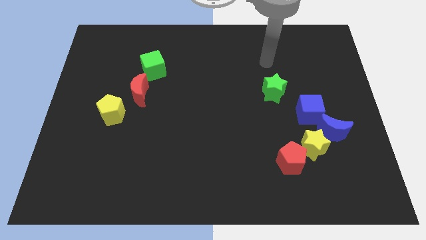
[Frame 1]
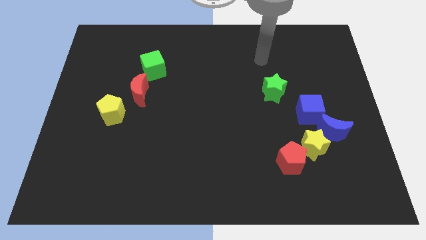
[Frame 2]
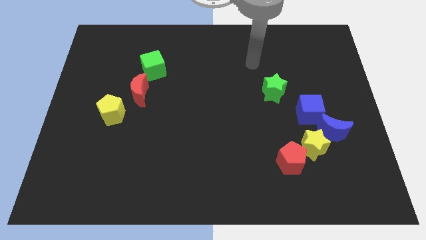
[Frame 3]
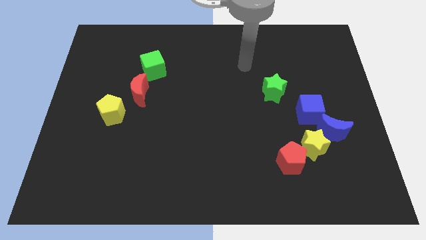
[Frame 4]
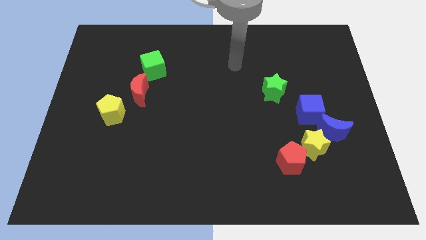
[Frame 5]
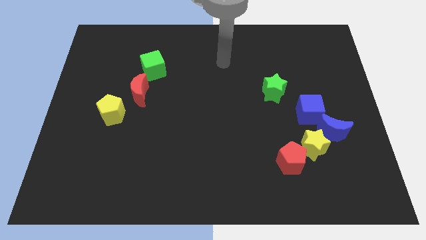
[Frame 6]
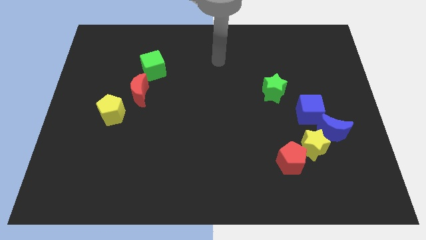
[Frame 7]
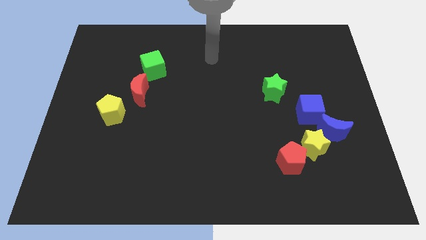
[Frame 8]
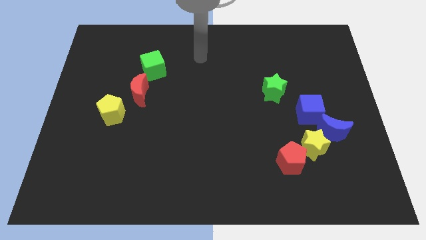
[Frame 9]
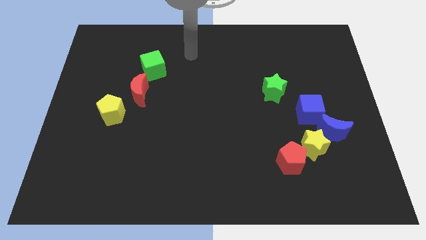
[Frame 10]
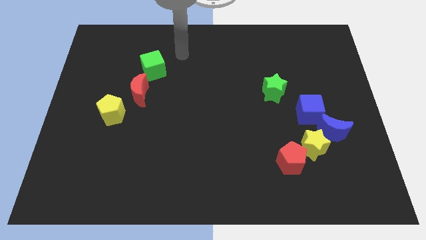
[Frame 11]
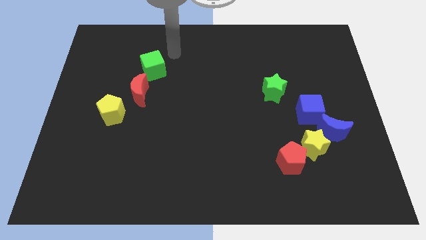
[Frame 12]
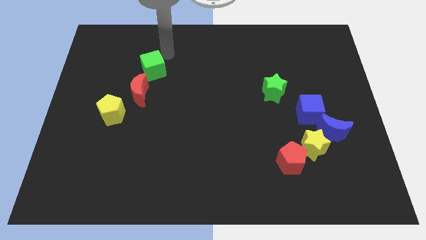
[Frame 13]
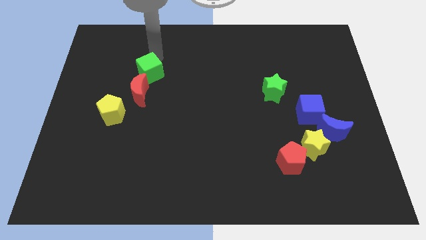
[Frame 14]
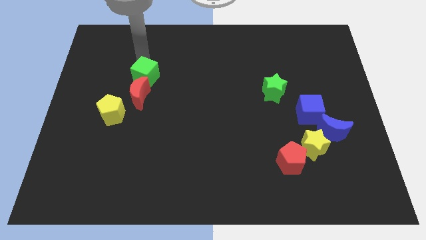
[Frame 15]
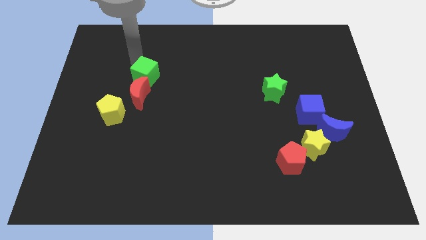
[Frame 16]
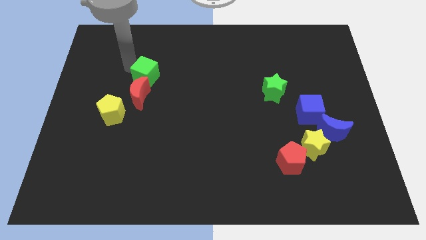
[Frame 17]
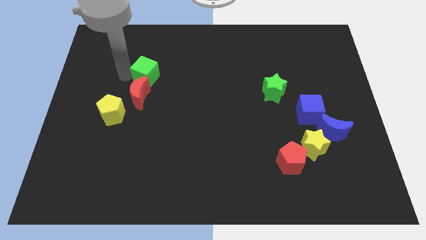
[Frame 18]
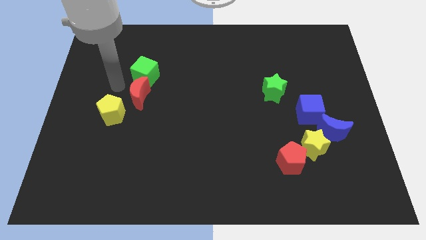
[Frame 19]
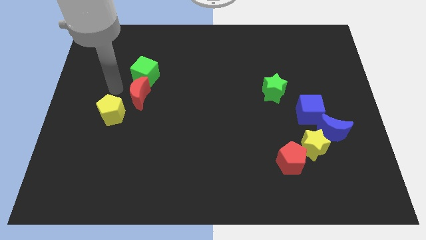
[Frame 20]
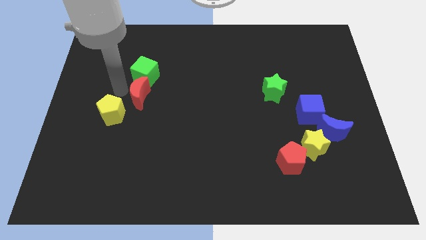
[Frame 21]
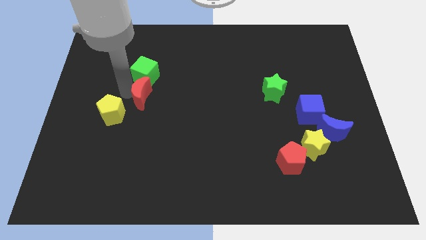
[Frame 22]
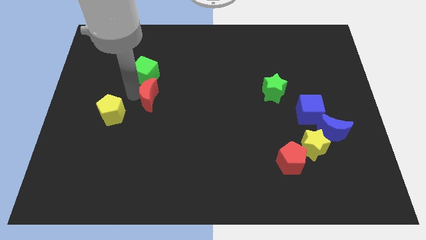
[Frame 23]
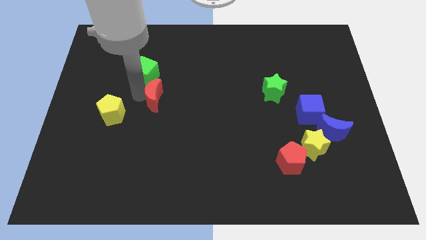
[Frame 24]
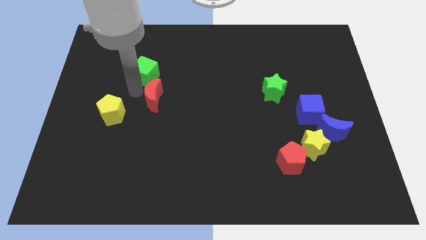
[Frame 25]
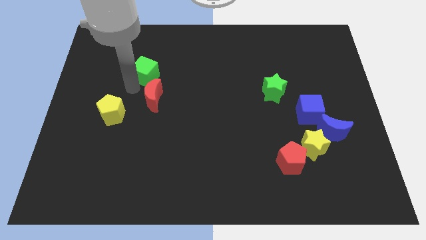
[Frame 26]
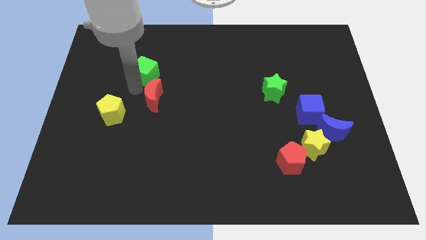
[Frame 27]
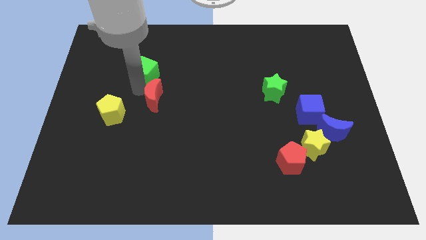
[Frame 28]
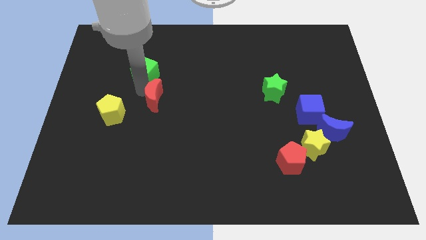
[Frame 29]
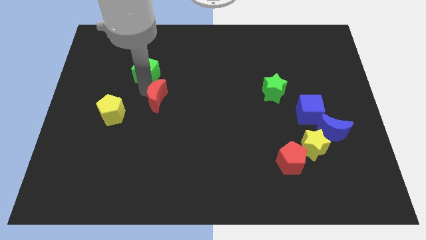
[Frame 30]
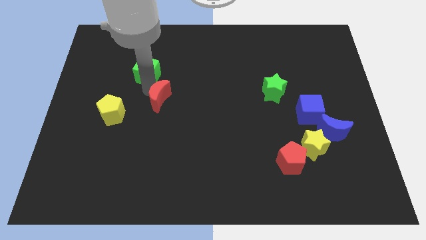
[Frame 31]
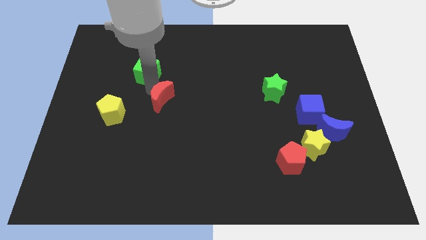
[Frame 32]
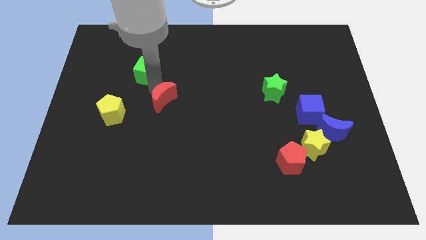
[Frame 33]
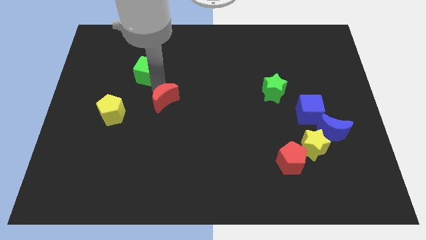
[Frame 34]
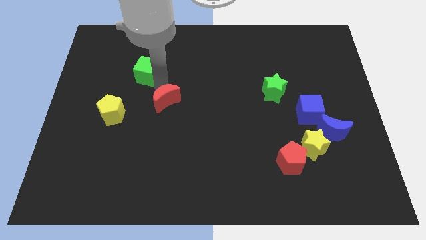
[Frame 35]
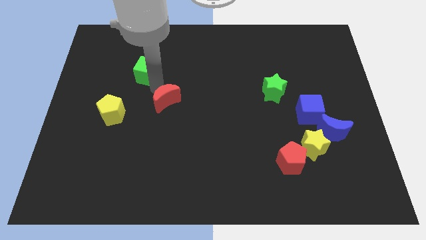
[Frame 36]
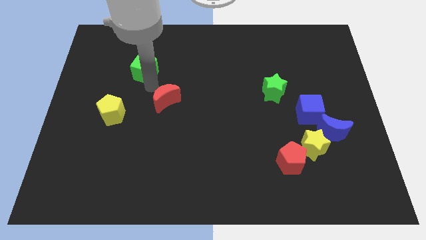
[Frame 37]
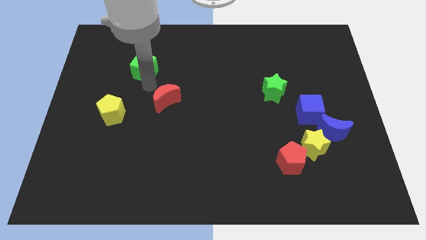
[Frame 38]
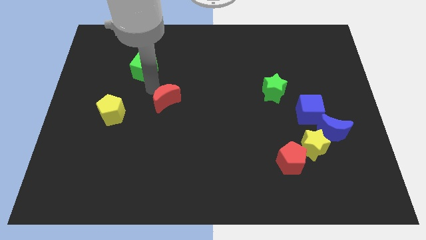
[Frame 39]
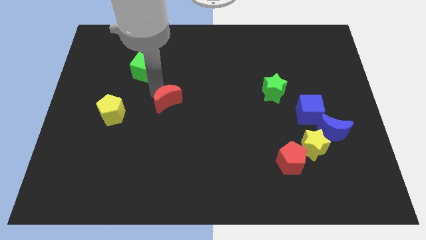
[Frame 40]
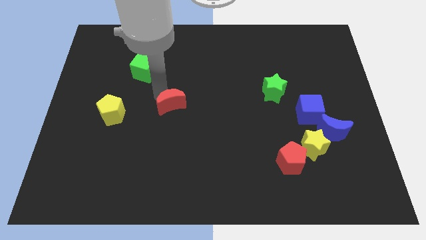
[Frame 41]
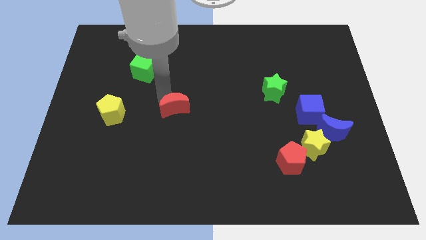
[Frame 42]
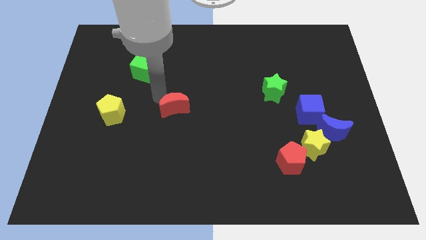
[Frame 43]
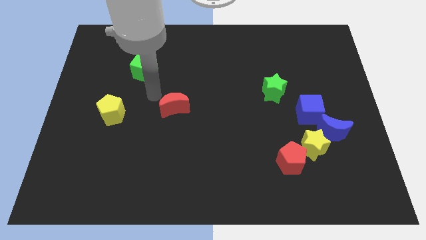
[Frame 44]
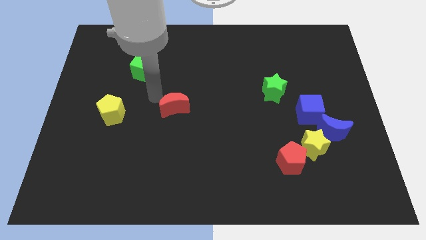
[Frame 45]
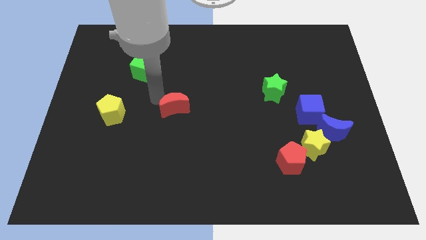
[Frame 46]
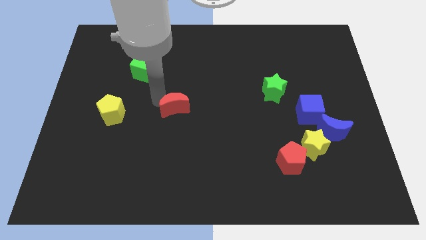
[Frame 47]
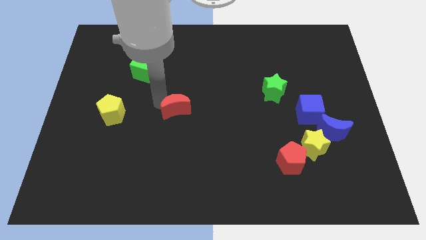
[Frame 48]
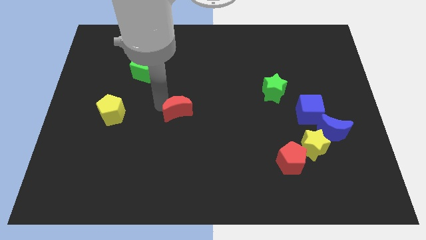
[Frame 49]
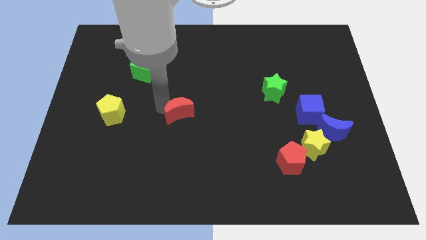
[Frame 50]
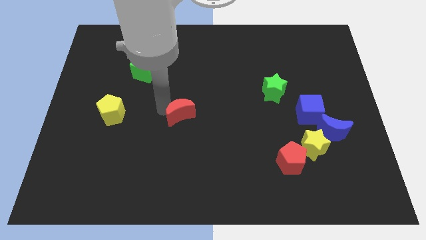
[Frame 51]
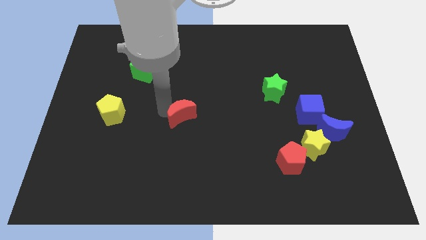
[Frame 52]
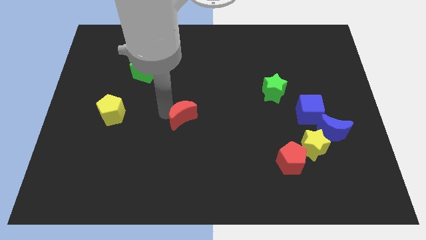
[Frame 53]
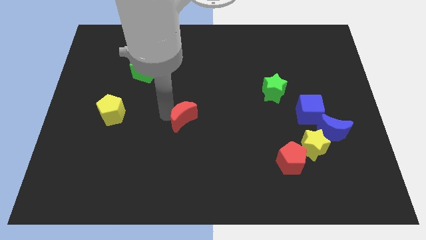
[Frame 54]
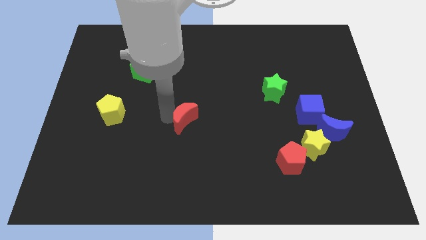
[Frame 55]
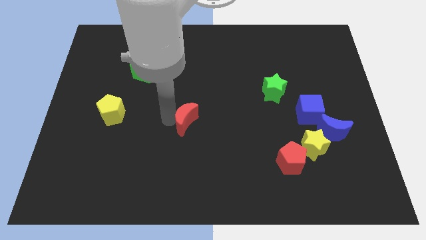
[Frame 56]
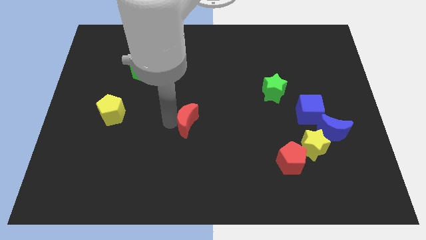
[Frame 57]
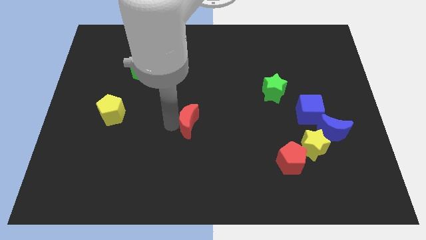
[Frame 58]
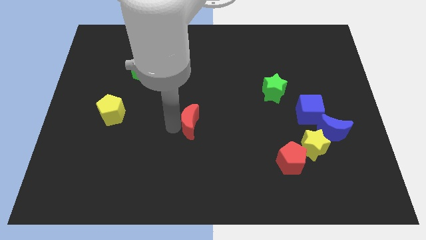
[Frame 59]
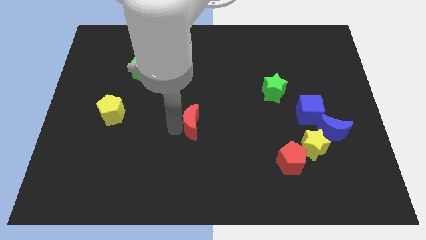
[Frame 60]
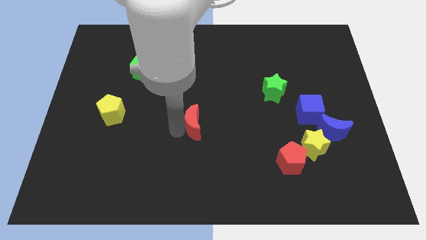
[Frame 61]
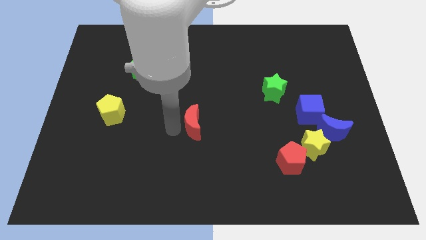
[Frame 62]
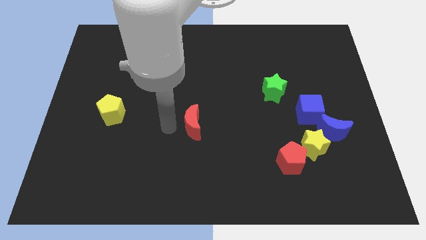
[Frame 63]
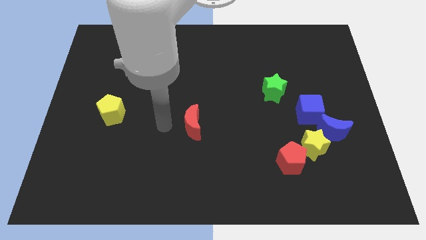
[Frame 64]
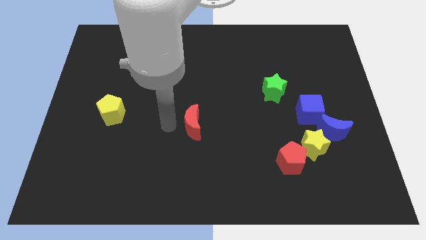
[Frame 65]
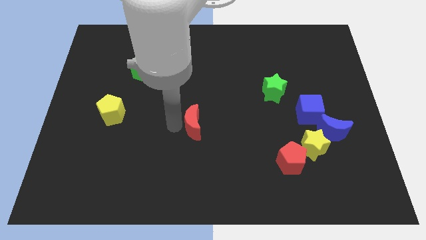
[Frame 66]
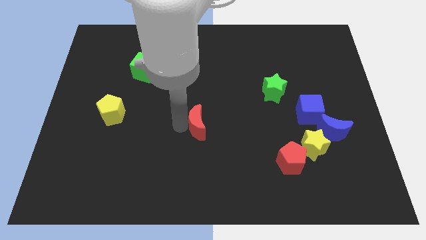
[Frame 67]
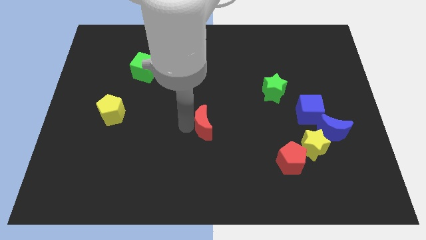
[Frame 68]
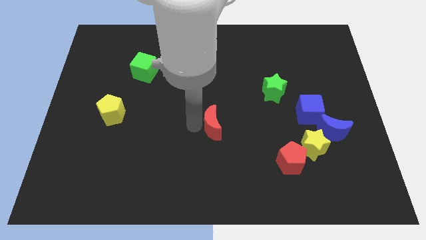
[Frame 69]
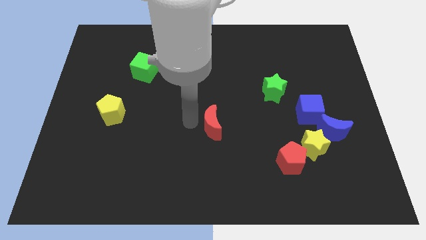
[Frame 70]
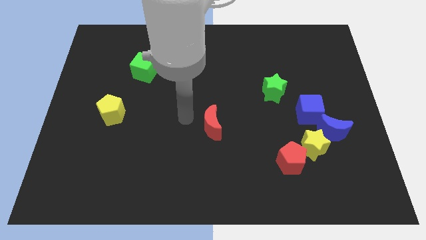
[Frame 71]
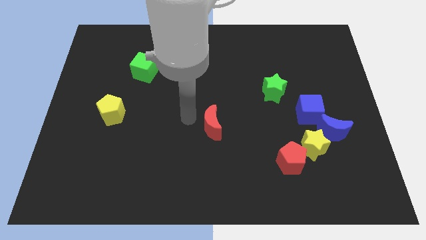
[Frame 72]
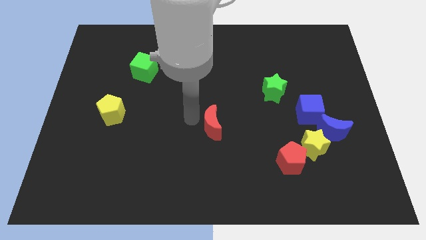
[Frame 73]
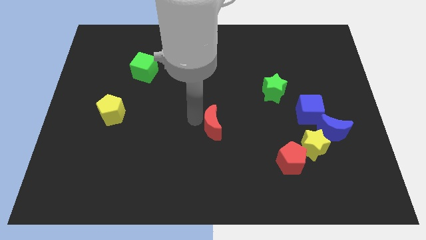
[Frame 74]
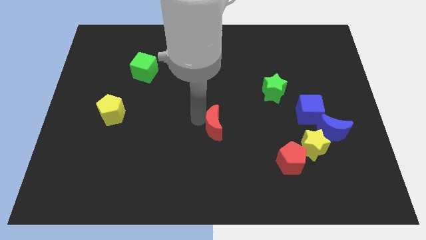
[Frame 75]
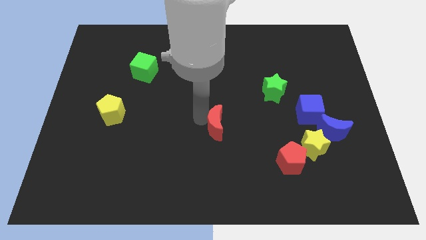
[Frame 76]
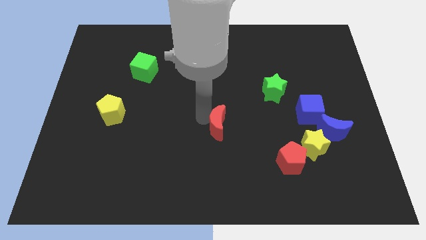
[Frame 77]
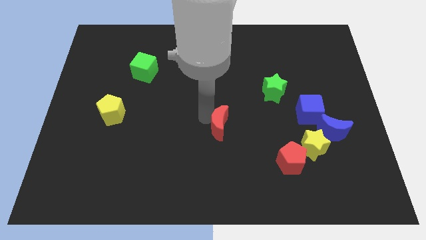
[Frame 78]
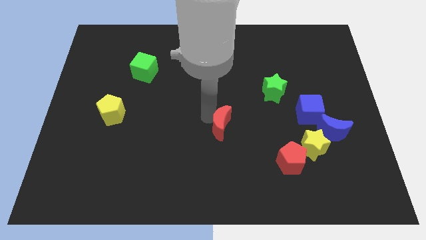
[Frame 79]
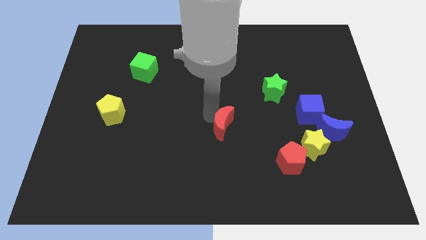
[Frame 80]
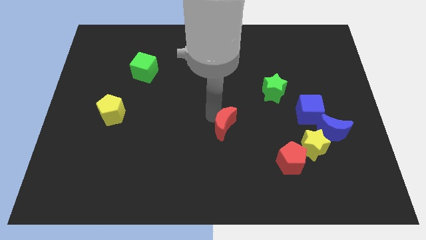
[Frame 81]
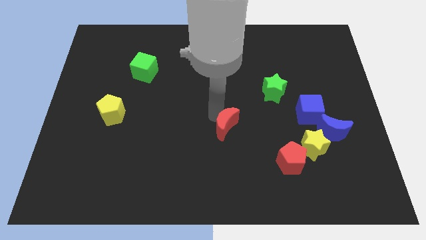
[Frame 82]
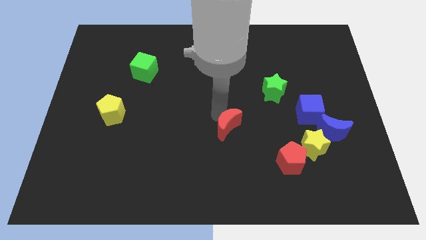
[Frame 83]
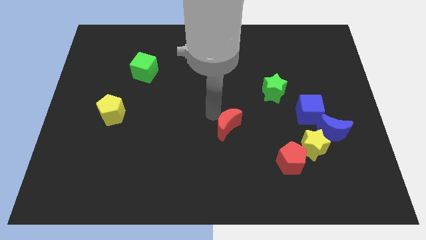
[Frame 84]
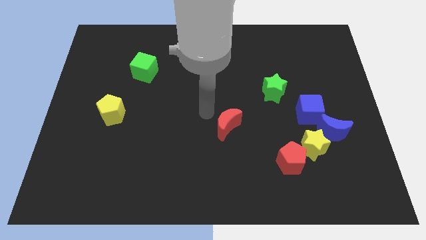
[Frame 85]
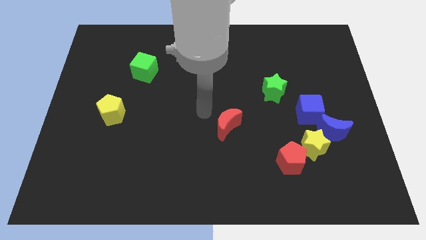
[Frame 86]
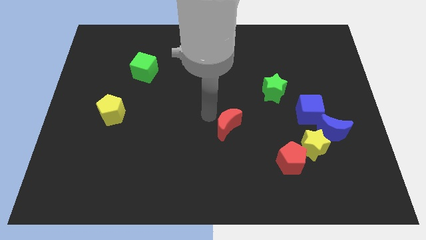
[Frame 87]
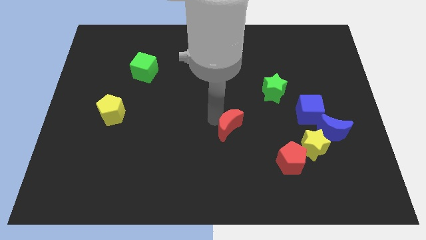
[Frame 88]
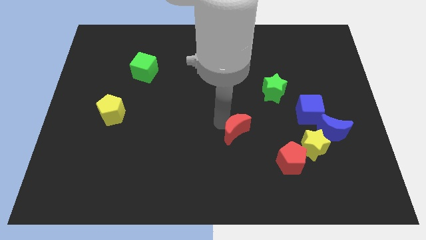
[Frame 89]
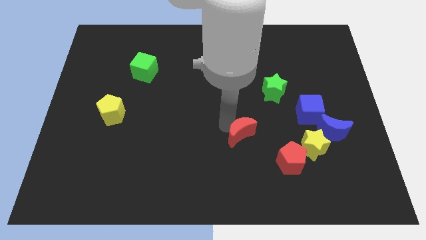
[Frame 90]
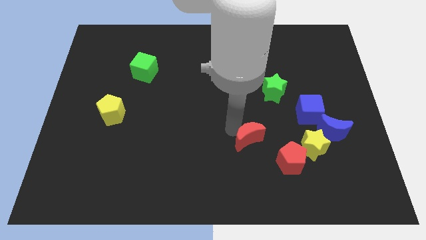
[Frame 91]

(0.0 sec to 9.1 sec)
push the red moon just left of the yellow star
